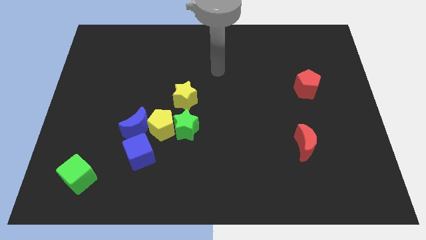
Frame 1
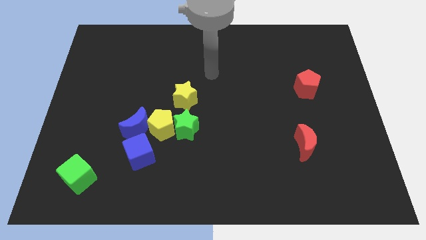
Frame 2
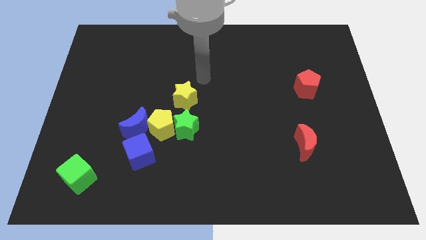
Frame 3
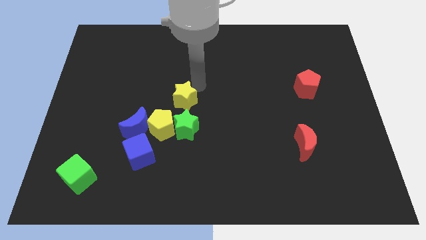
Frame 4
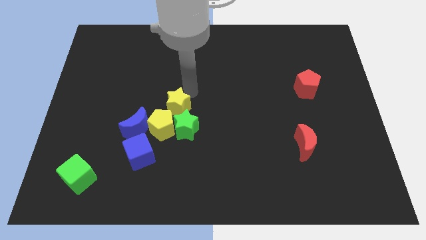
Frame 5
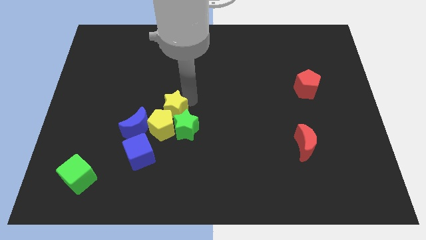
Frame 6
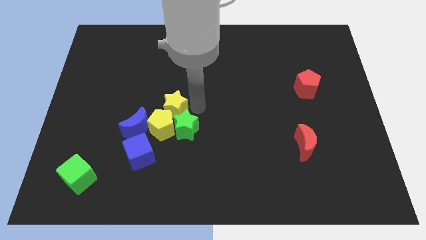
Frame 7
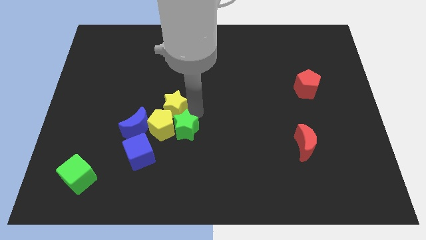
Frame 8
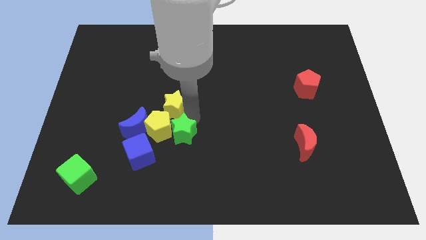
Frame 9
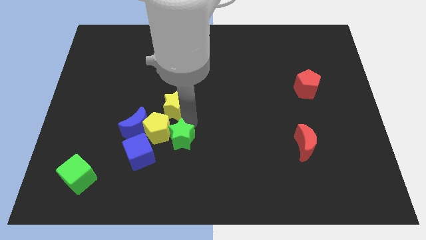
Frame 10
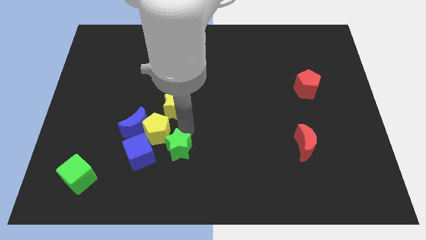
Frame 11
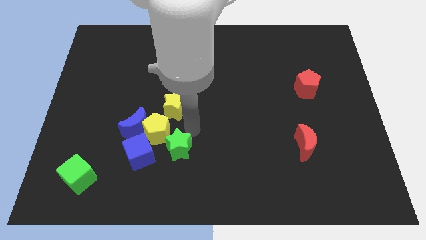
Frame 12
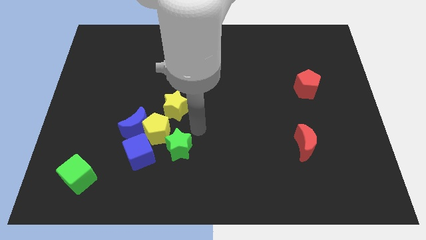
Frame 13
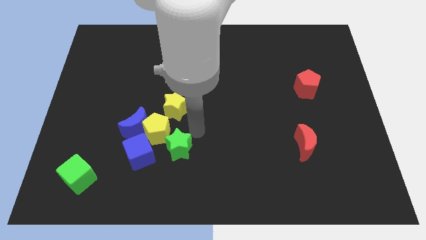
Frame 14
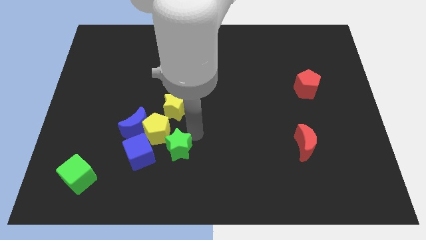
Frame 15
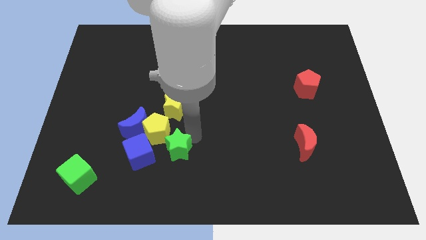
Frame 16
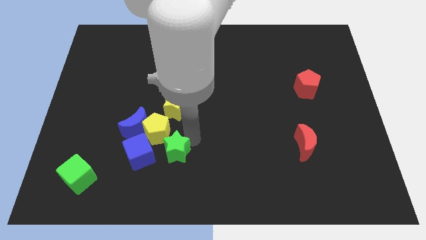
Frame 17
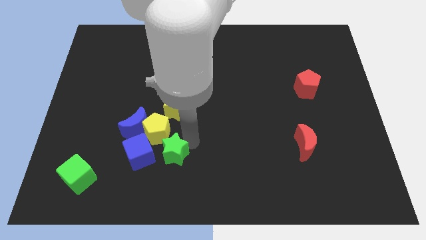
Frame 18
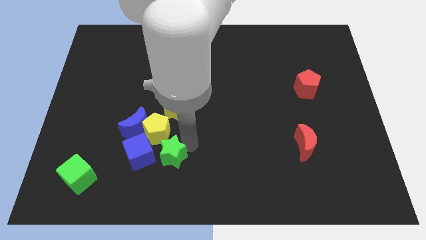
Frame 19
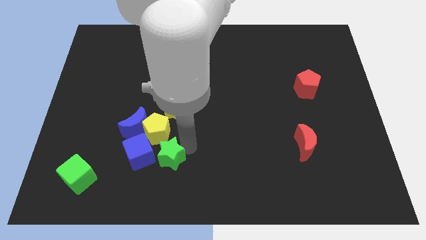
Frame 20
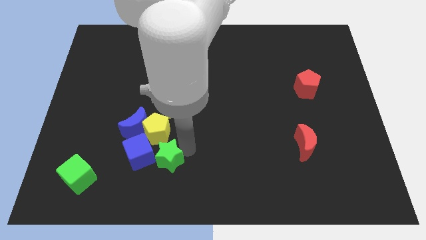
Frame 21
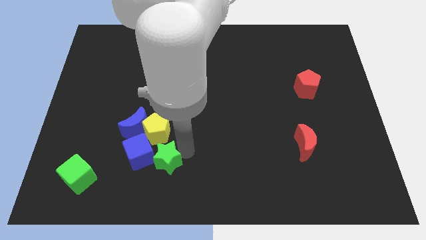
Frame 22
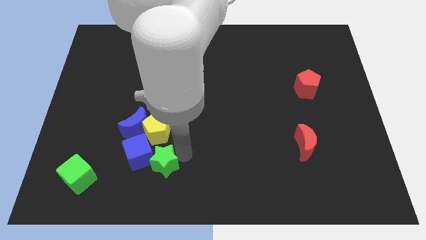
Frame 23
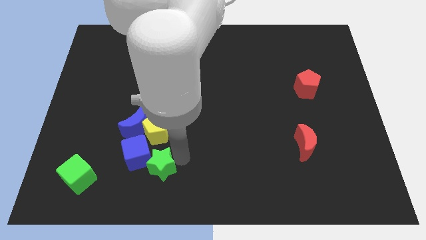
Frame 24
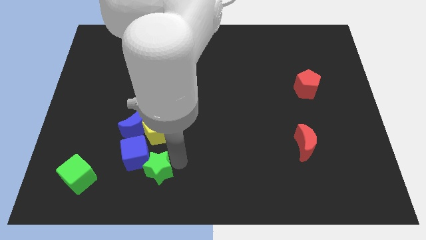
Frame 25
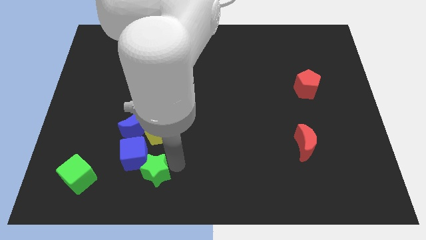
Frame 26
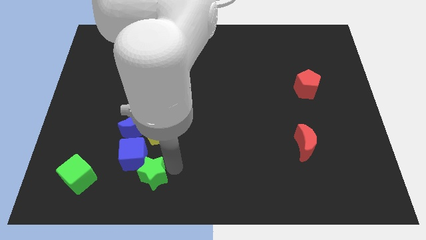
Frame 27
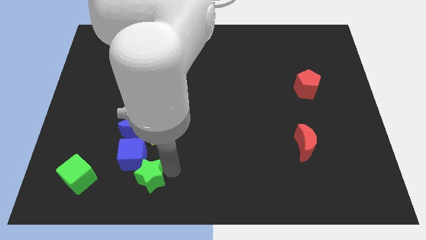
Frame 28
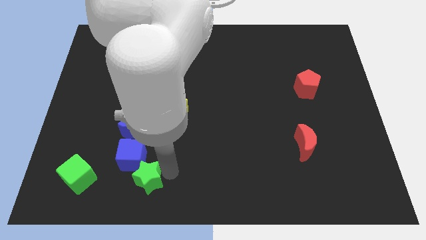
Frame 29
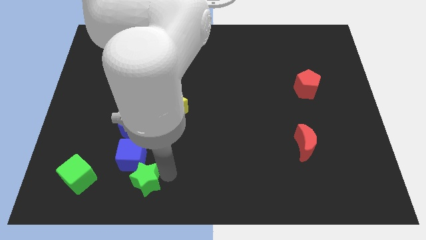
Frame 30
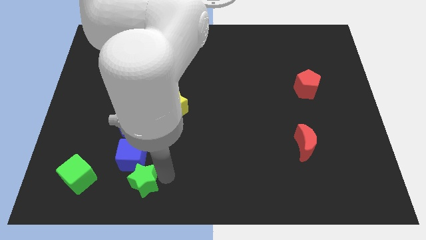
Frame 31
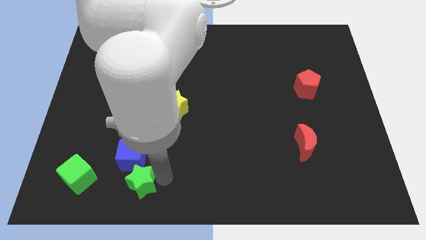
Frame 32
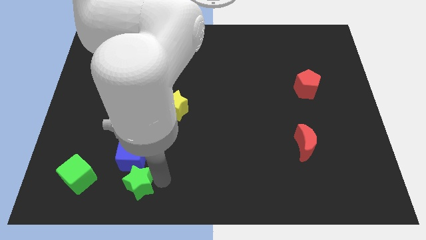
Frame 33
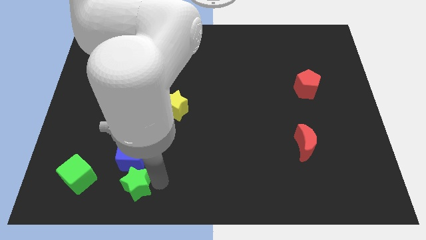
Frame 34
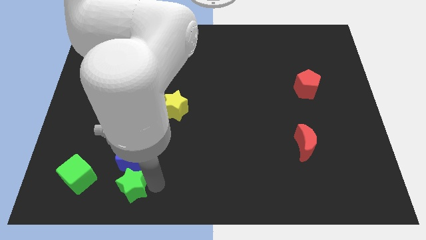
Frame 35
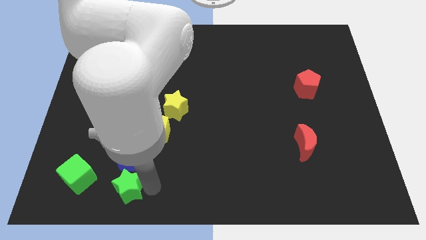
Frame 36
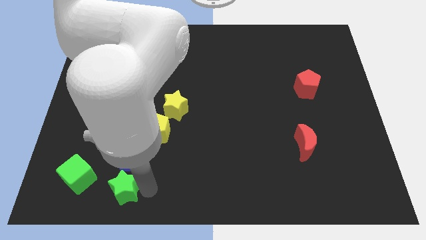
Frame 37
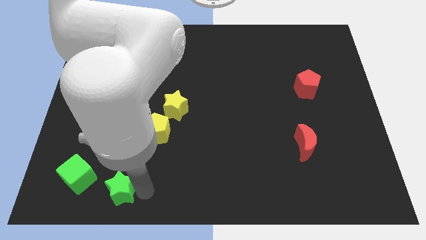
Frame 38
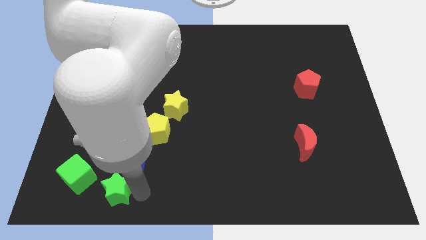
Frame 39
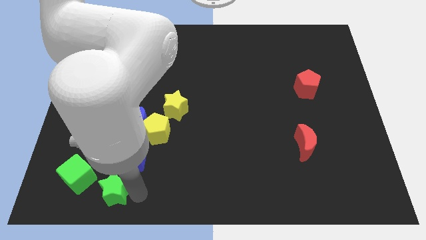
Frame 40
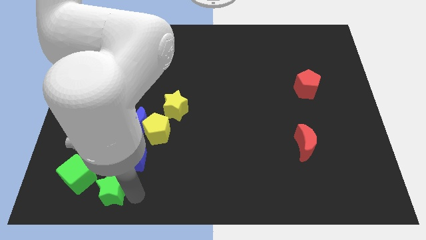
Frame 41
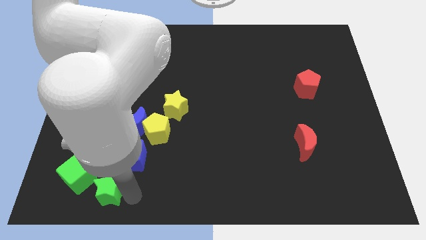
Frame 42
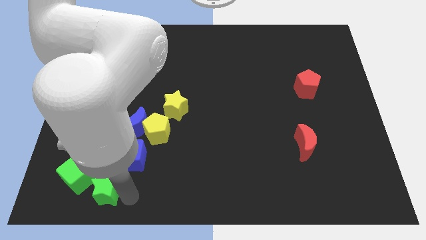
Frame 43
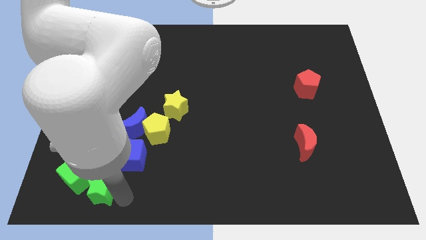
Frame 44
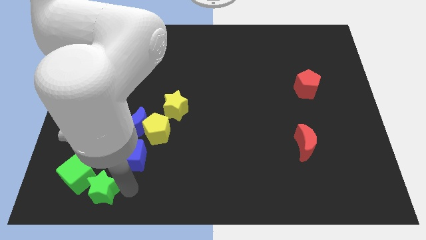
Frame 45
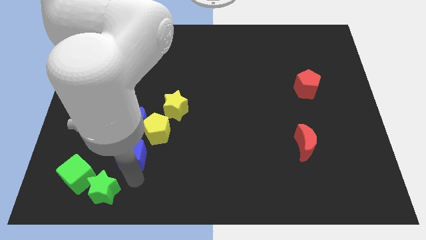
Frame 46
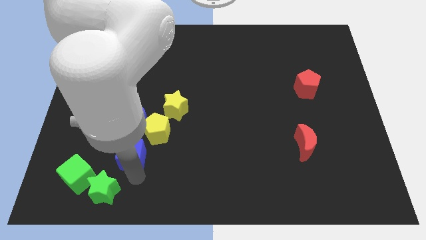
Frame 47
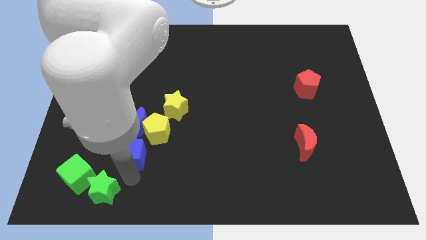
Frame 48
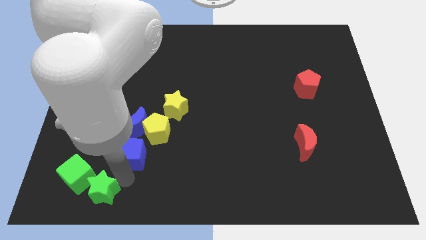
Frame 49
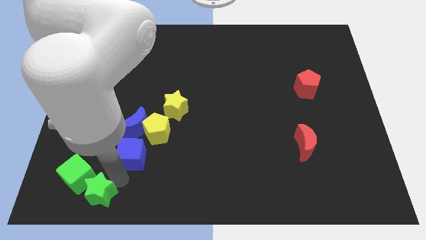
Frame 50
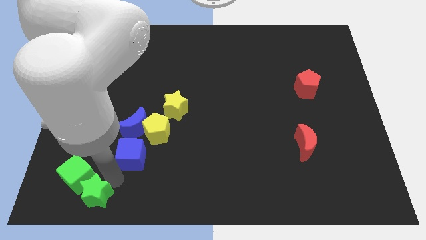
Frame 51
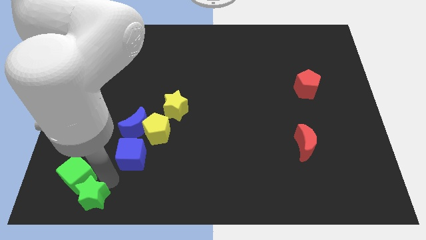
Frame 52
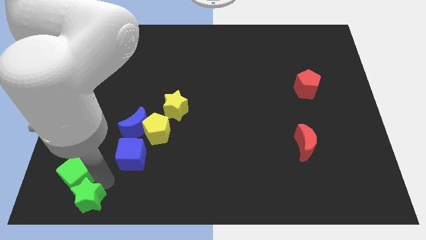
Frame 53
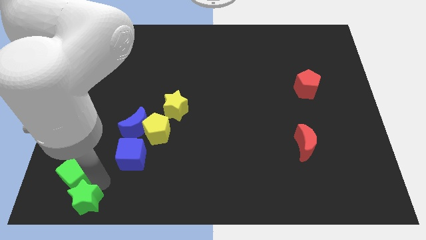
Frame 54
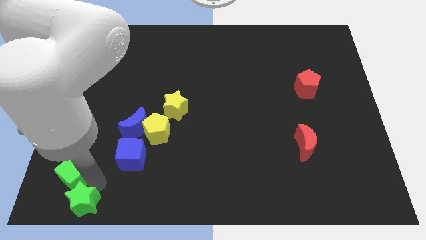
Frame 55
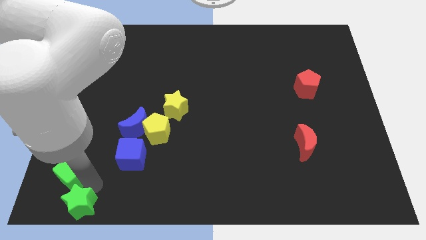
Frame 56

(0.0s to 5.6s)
put the green star to the bottom left of the board

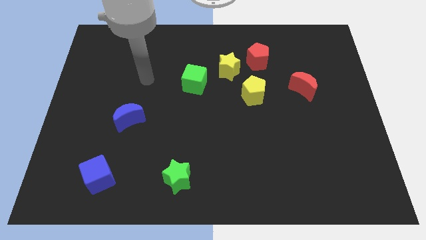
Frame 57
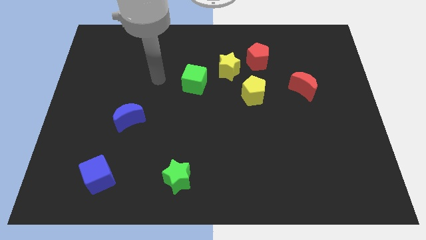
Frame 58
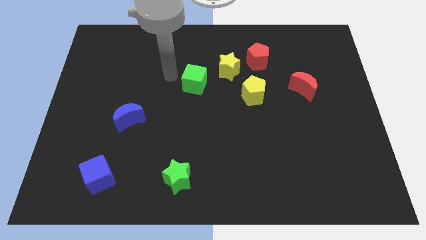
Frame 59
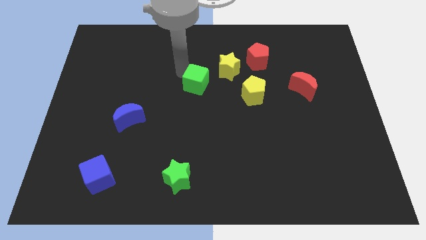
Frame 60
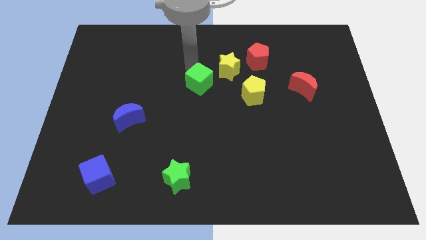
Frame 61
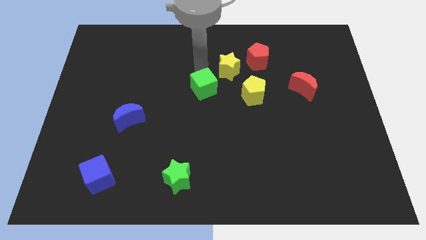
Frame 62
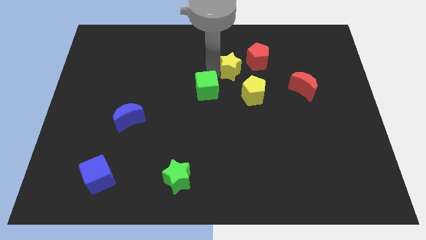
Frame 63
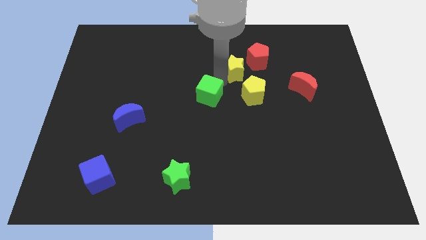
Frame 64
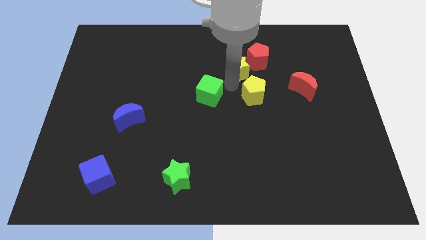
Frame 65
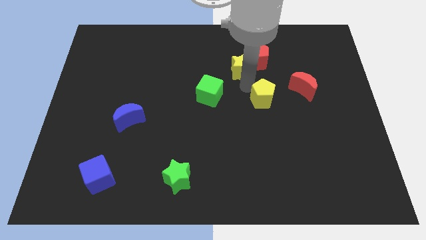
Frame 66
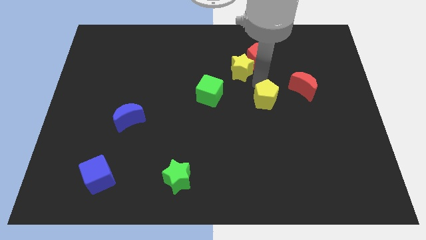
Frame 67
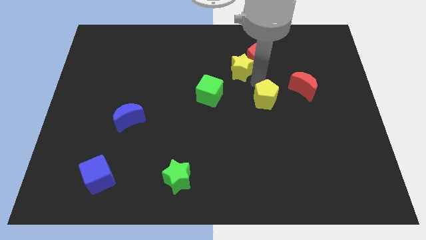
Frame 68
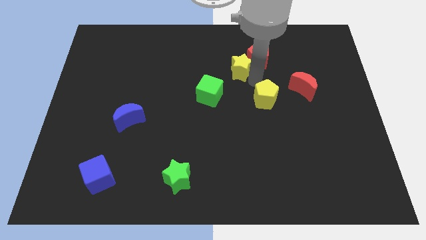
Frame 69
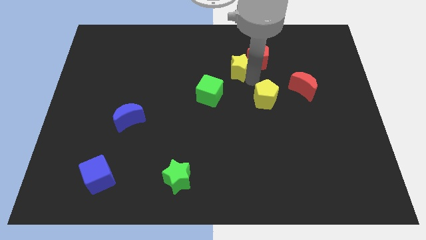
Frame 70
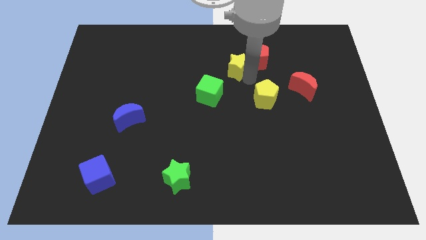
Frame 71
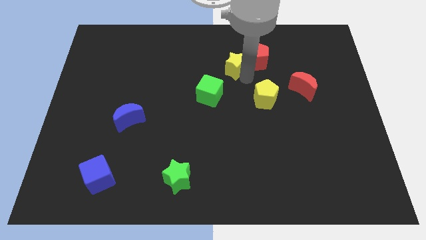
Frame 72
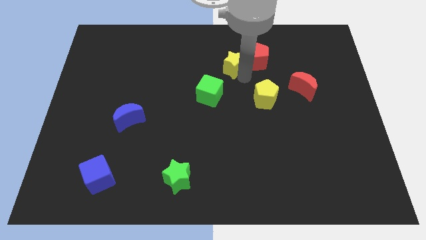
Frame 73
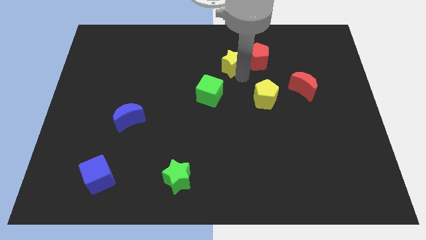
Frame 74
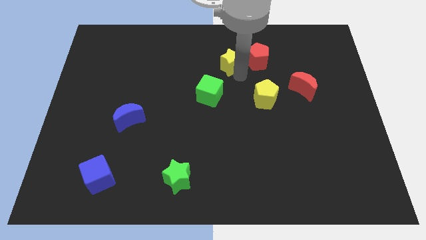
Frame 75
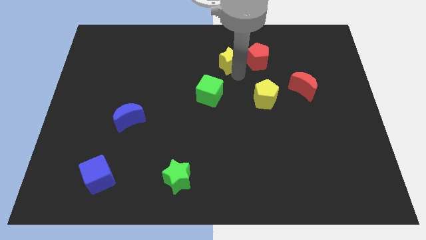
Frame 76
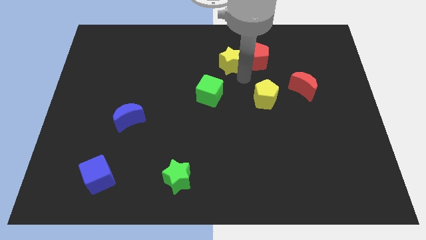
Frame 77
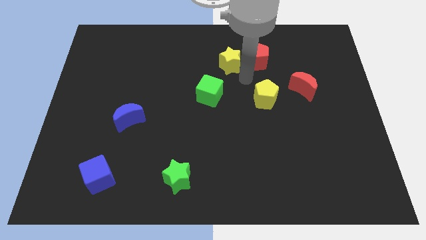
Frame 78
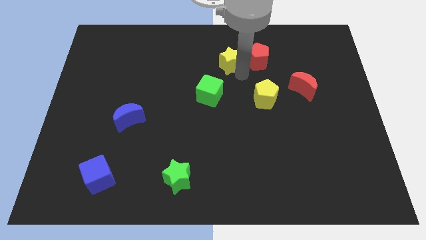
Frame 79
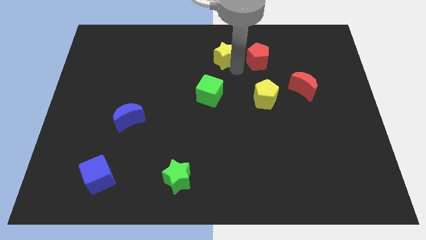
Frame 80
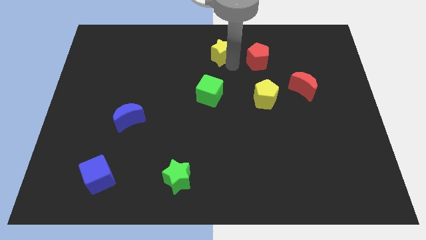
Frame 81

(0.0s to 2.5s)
move the yellow star to the top side
